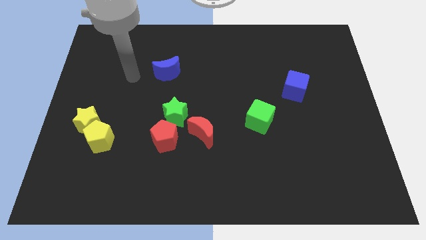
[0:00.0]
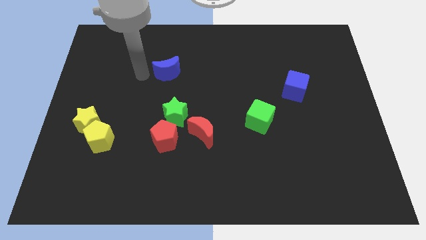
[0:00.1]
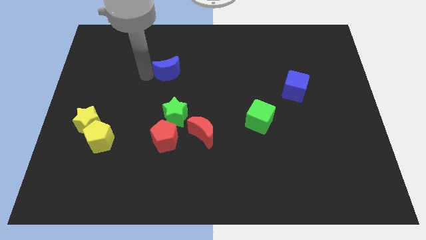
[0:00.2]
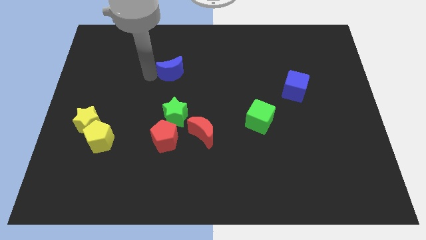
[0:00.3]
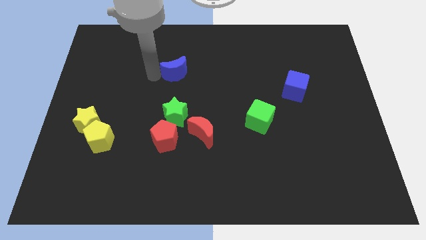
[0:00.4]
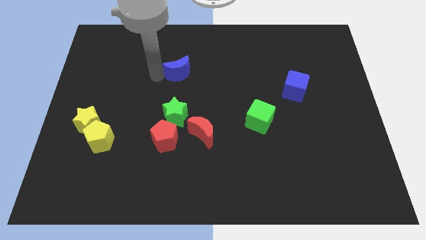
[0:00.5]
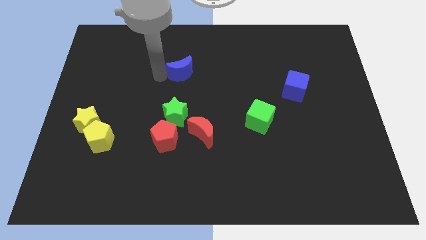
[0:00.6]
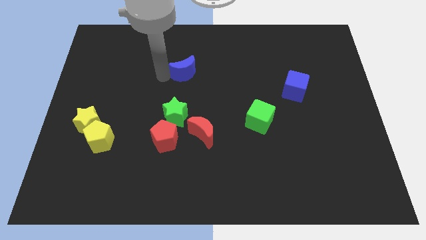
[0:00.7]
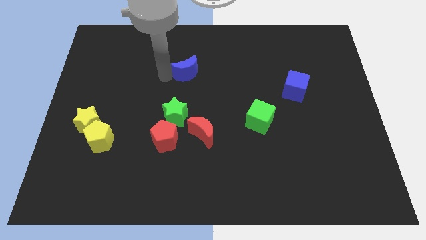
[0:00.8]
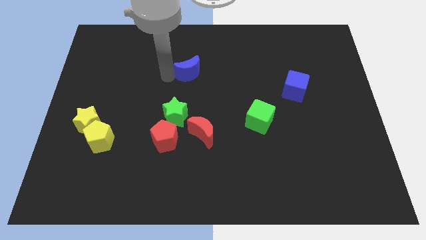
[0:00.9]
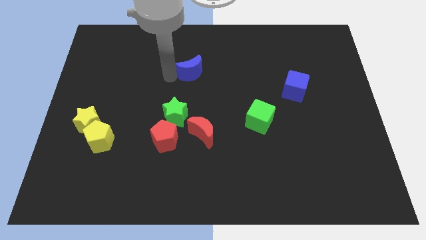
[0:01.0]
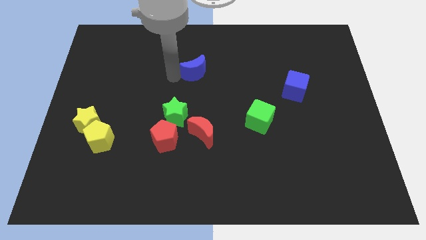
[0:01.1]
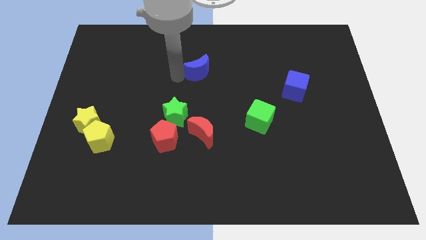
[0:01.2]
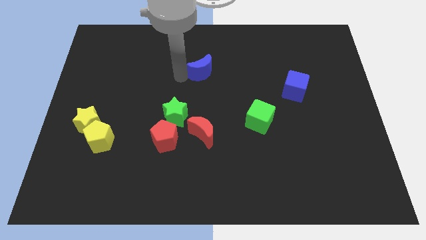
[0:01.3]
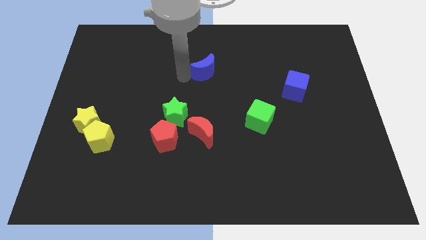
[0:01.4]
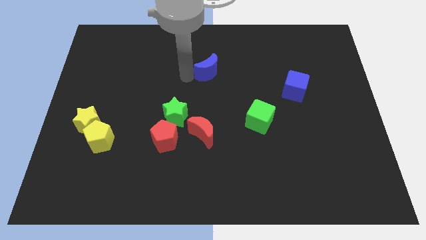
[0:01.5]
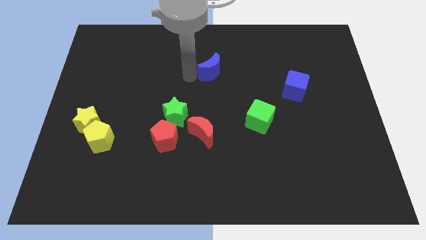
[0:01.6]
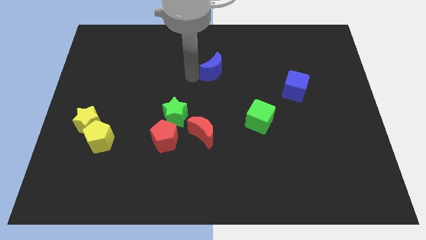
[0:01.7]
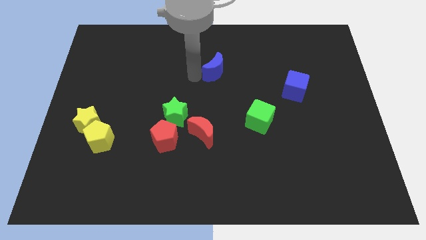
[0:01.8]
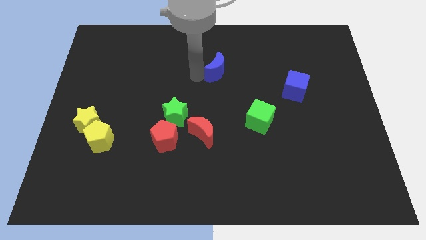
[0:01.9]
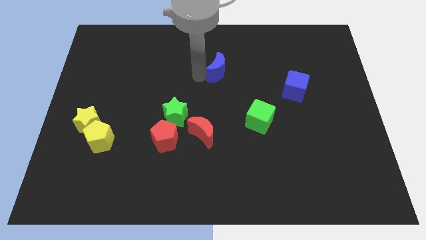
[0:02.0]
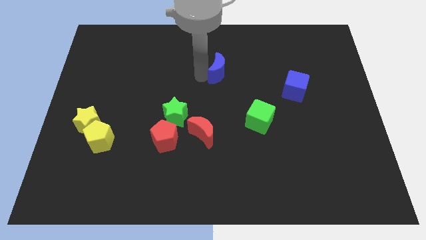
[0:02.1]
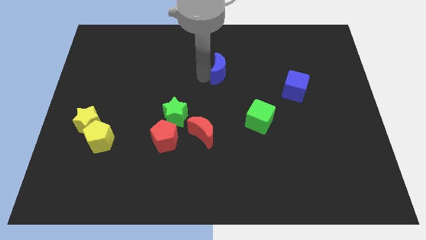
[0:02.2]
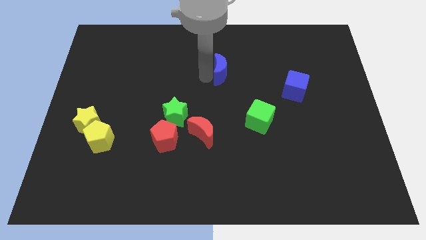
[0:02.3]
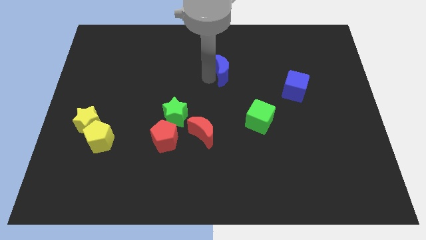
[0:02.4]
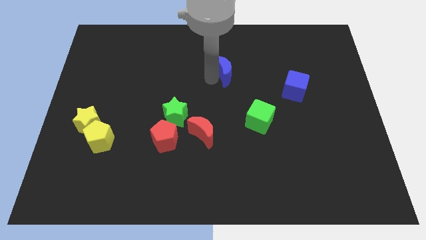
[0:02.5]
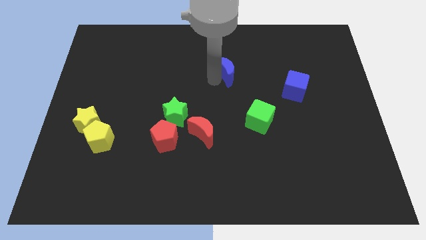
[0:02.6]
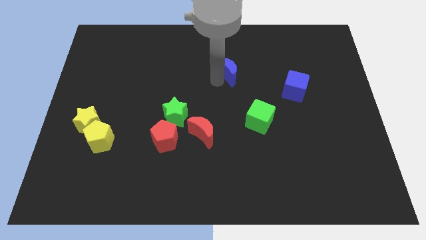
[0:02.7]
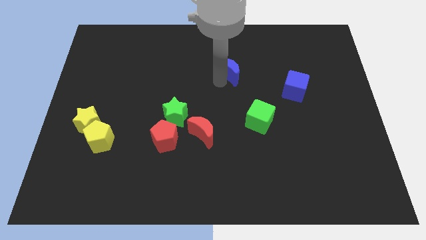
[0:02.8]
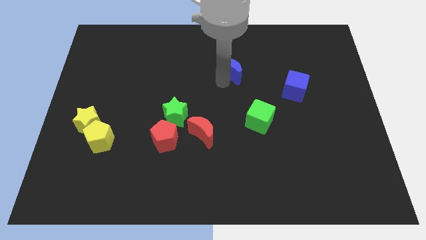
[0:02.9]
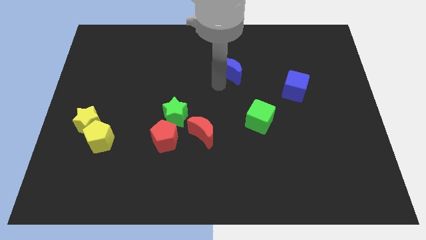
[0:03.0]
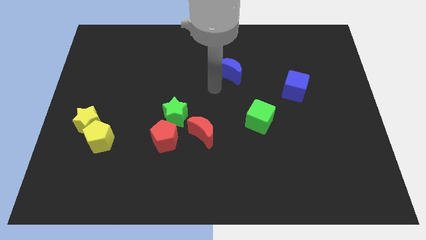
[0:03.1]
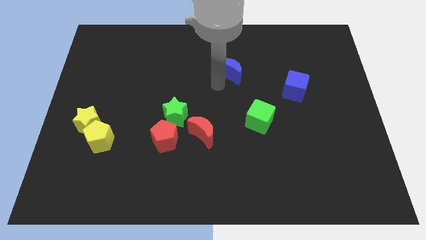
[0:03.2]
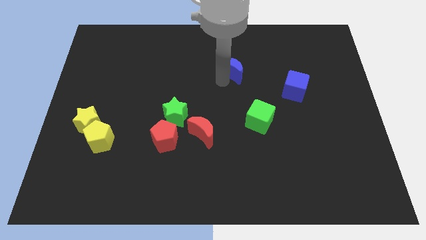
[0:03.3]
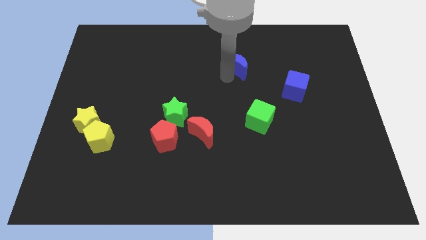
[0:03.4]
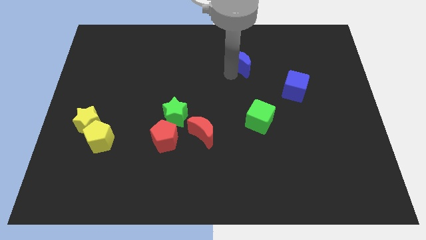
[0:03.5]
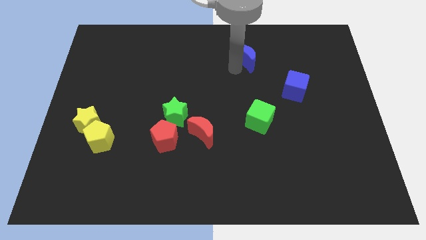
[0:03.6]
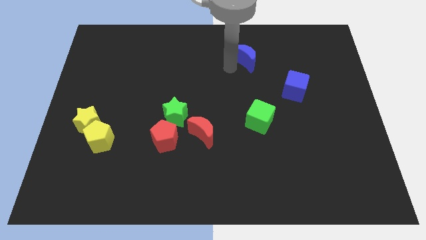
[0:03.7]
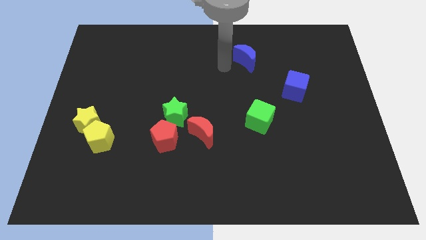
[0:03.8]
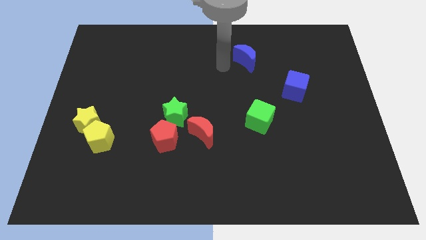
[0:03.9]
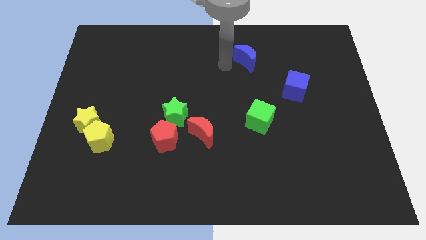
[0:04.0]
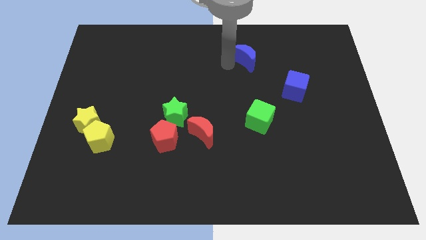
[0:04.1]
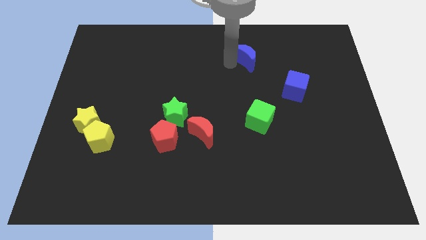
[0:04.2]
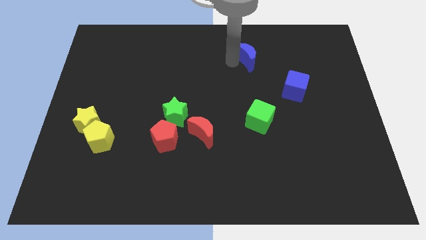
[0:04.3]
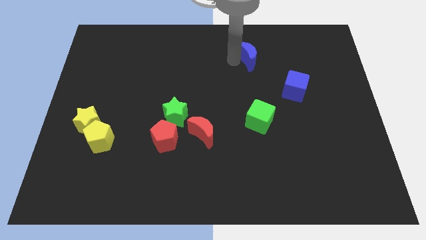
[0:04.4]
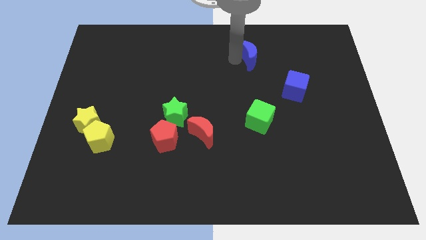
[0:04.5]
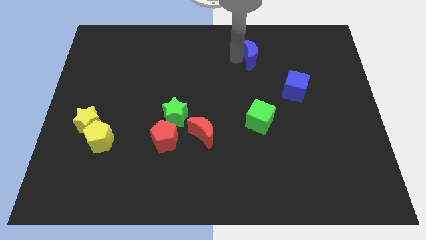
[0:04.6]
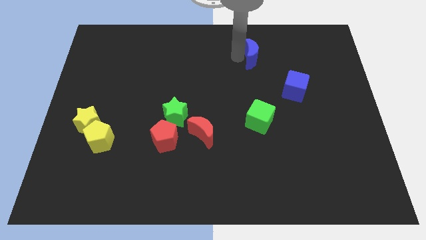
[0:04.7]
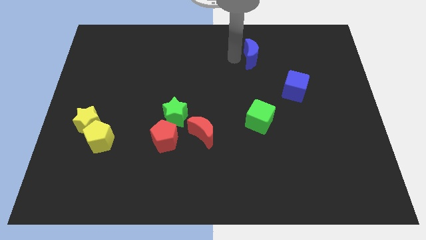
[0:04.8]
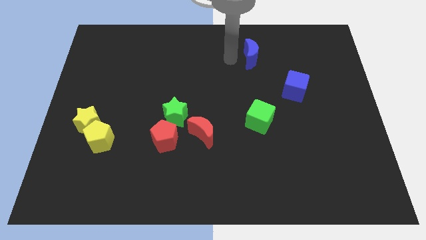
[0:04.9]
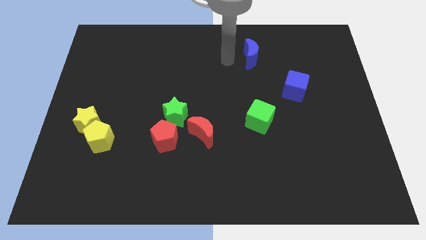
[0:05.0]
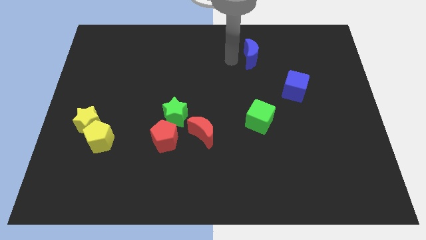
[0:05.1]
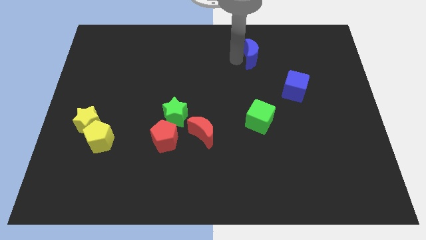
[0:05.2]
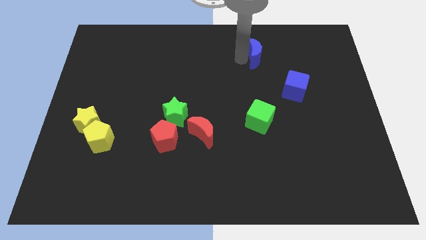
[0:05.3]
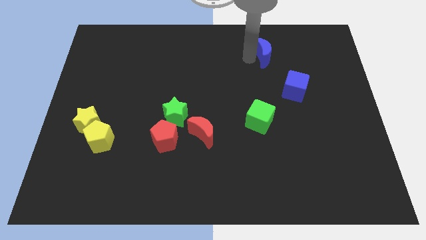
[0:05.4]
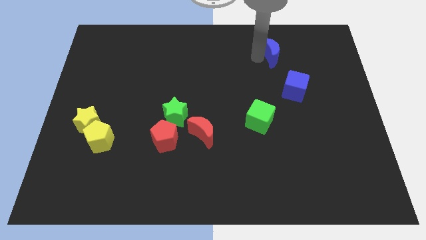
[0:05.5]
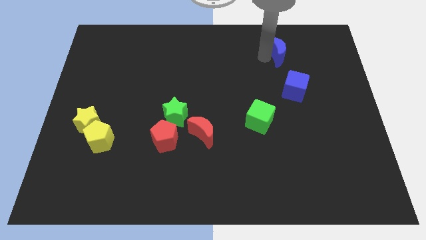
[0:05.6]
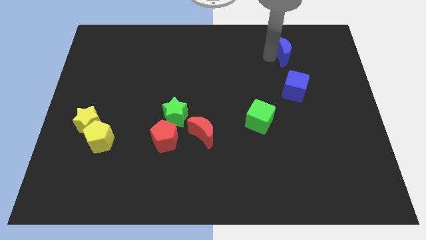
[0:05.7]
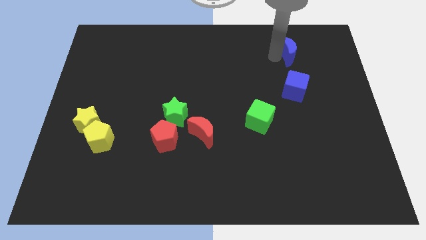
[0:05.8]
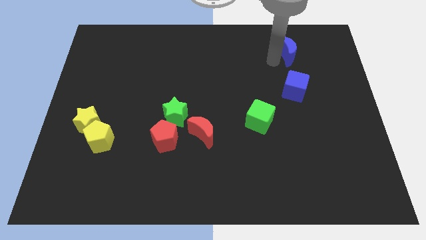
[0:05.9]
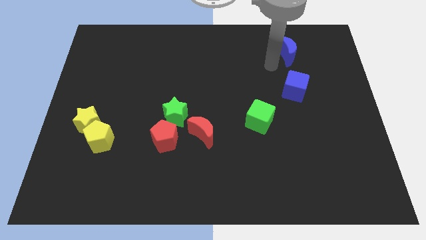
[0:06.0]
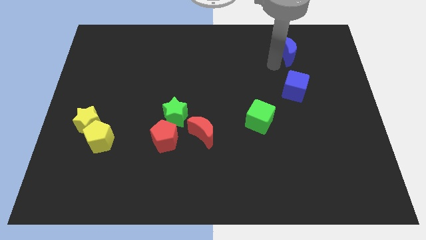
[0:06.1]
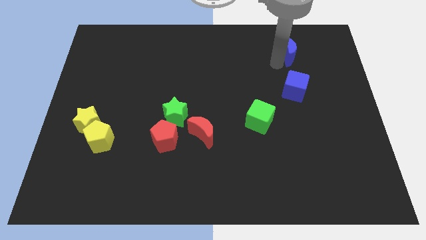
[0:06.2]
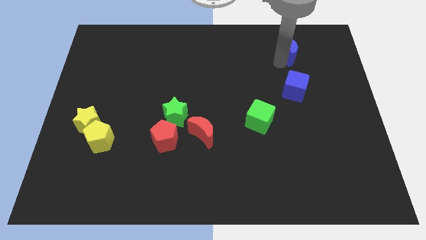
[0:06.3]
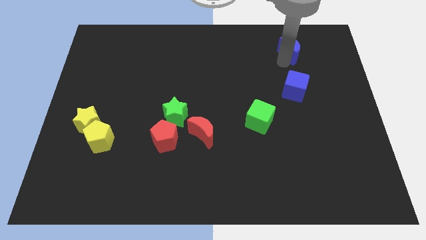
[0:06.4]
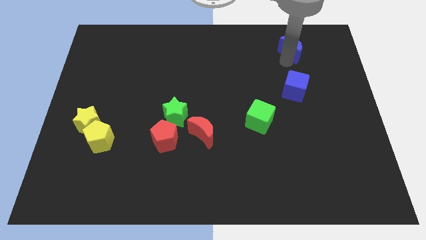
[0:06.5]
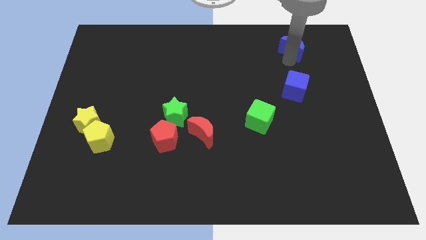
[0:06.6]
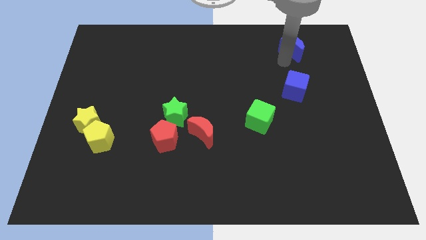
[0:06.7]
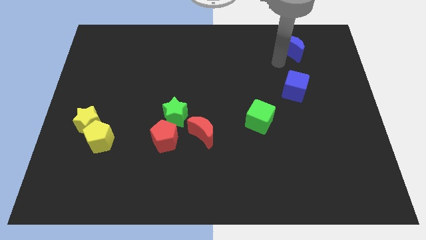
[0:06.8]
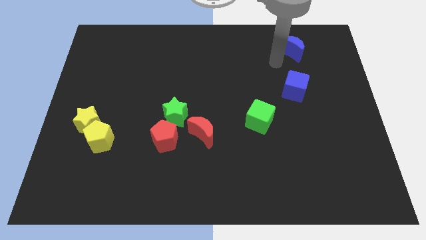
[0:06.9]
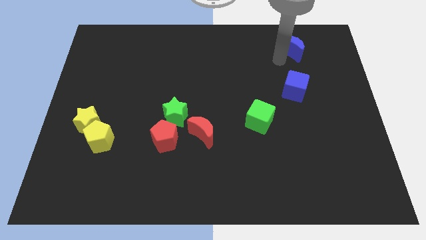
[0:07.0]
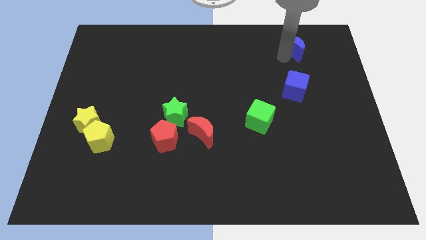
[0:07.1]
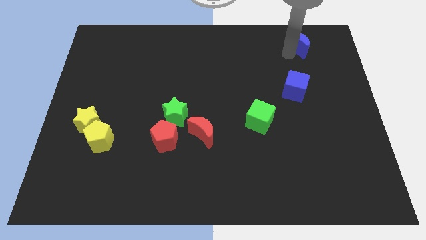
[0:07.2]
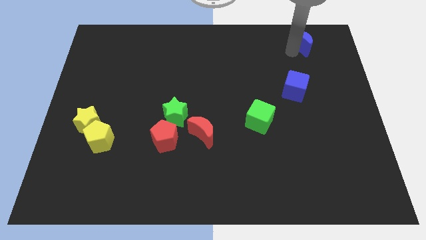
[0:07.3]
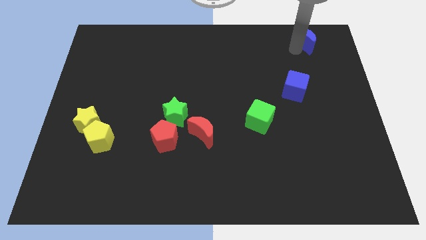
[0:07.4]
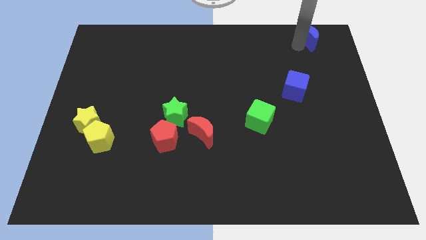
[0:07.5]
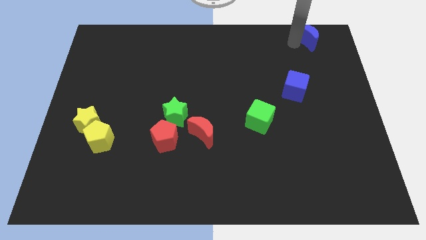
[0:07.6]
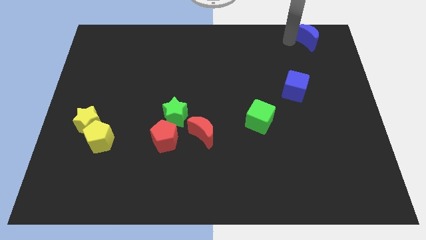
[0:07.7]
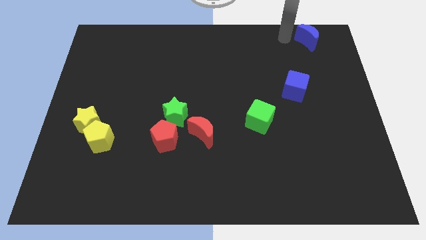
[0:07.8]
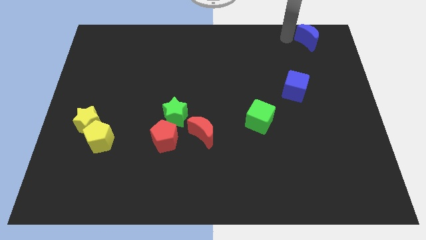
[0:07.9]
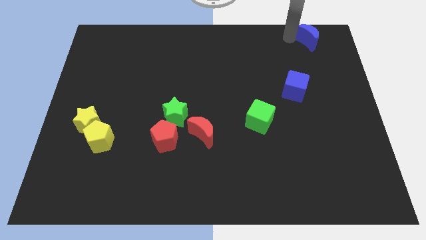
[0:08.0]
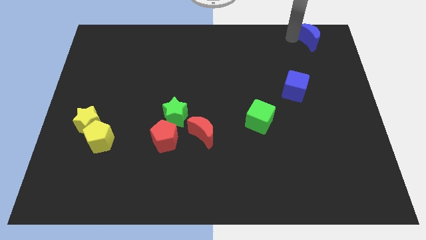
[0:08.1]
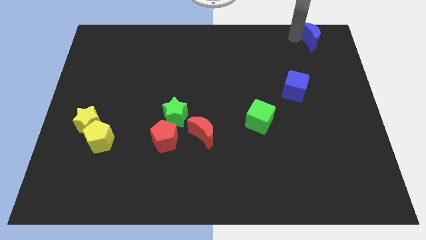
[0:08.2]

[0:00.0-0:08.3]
push the blue moon to the upper right corner
